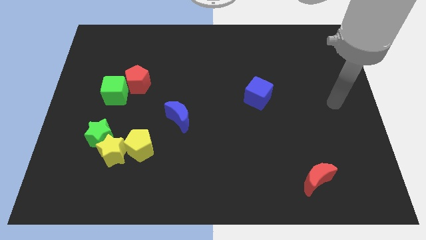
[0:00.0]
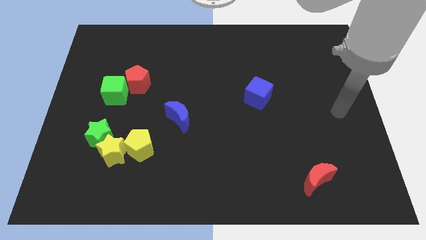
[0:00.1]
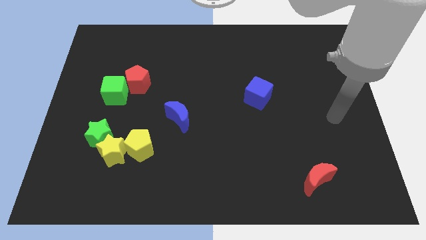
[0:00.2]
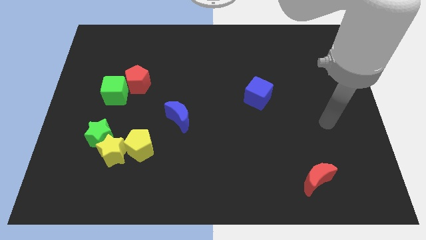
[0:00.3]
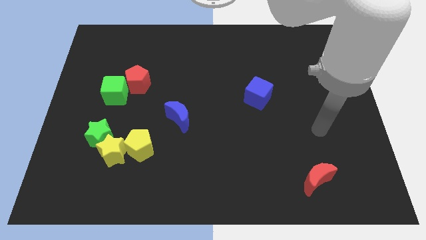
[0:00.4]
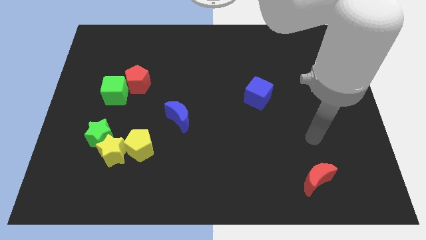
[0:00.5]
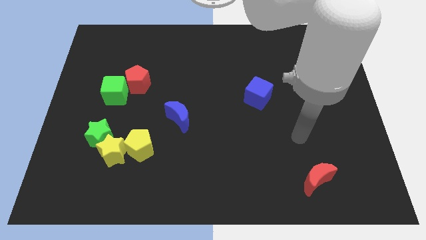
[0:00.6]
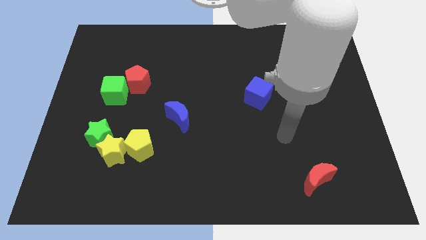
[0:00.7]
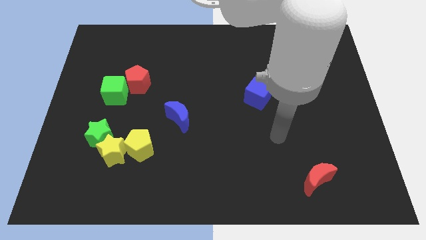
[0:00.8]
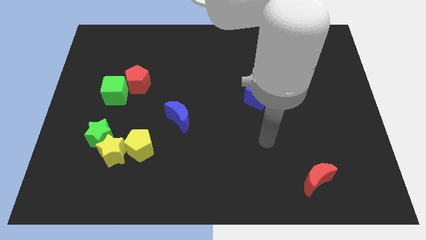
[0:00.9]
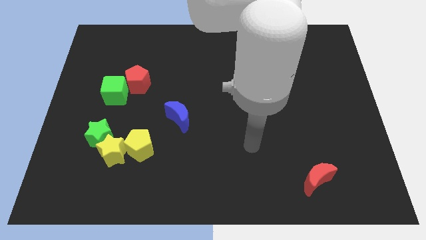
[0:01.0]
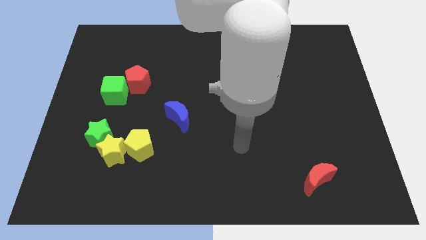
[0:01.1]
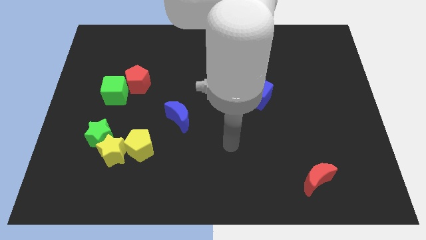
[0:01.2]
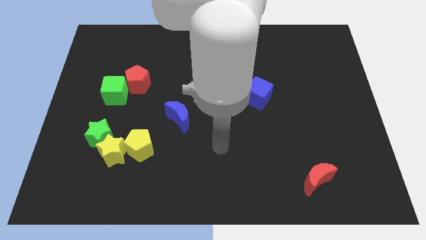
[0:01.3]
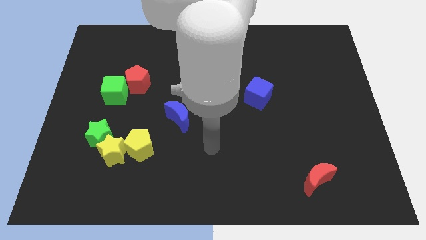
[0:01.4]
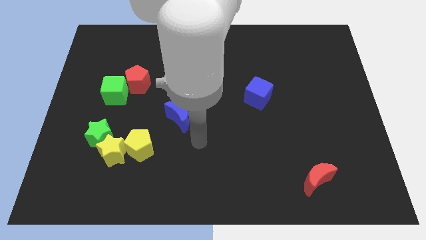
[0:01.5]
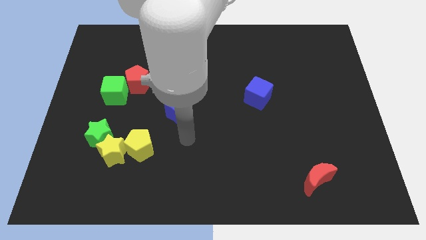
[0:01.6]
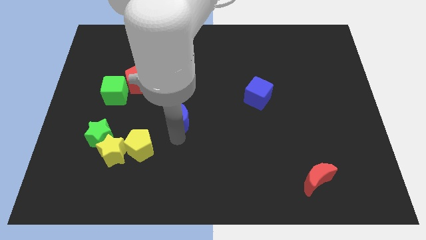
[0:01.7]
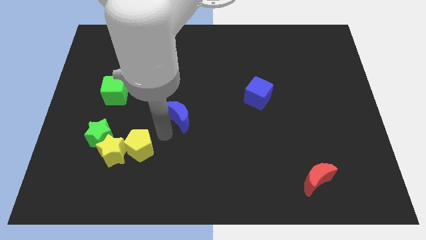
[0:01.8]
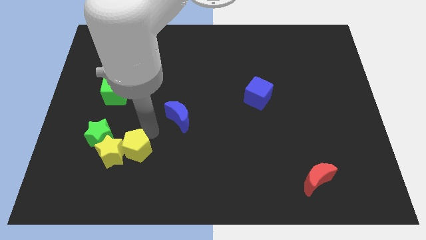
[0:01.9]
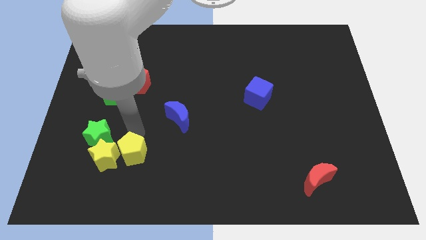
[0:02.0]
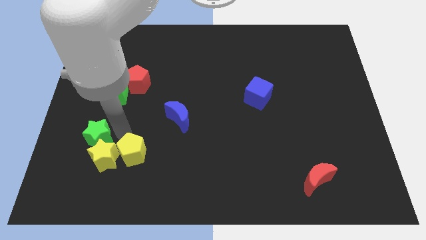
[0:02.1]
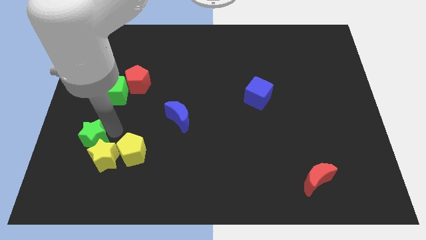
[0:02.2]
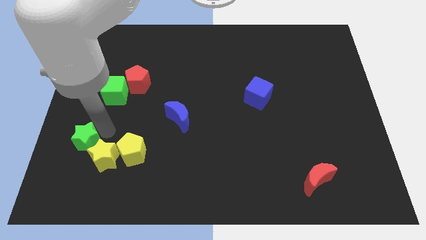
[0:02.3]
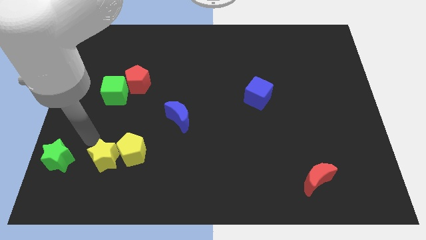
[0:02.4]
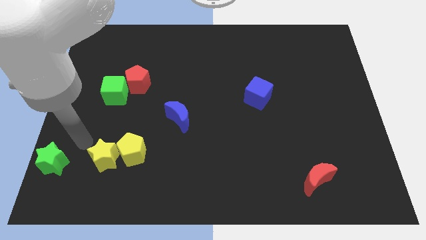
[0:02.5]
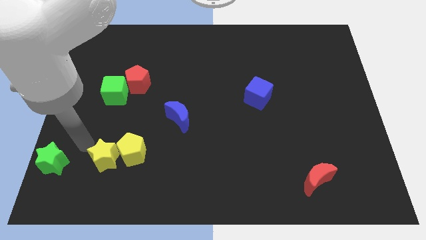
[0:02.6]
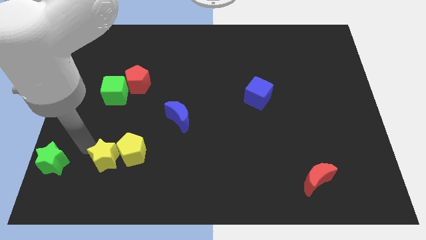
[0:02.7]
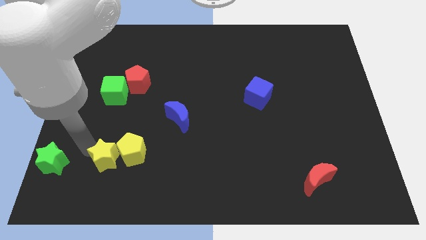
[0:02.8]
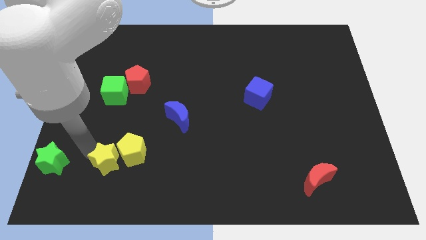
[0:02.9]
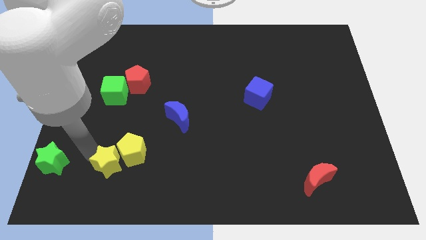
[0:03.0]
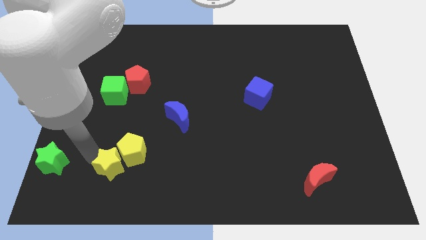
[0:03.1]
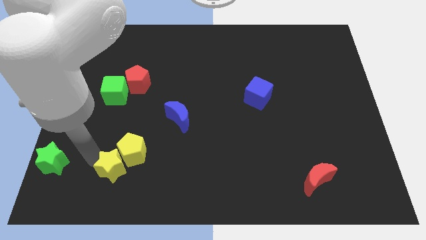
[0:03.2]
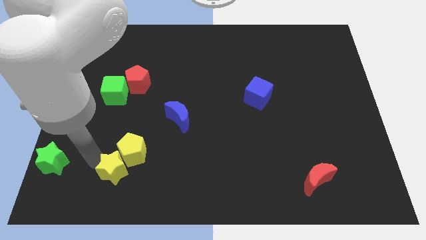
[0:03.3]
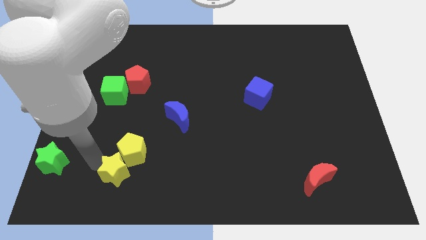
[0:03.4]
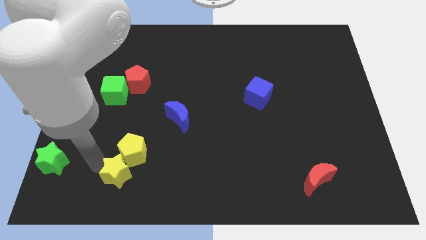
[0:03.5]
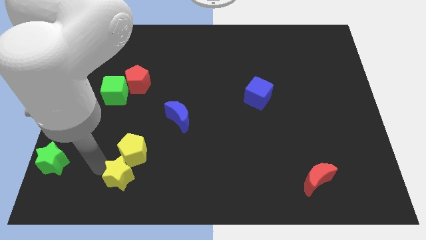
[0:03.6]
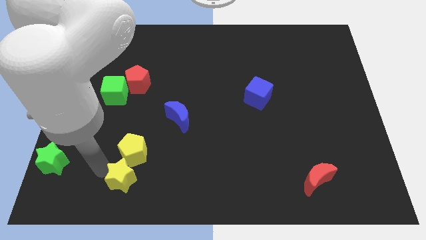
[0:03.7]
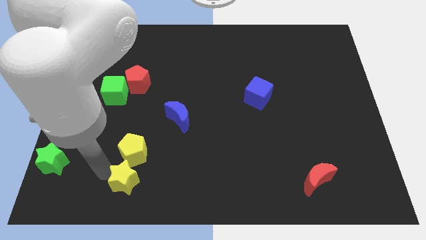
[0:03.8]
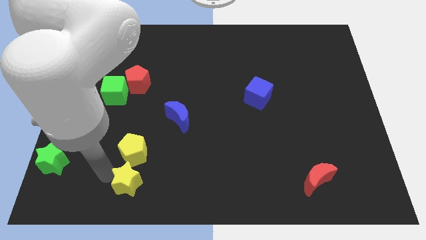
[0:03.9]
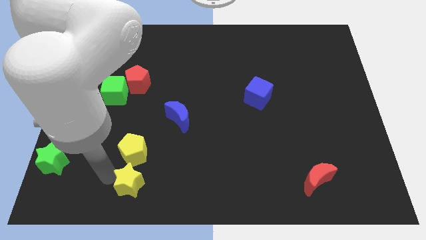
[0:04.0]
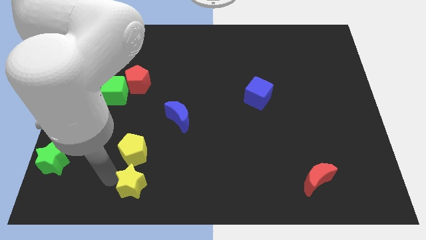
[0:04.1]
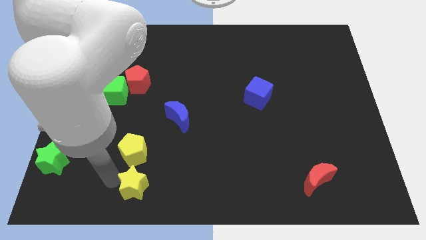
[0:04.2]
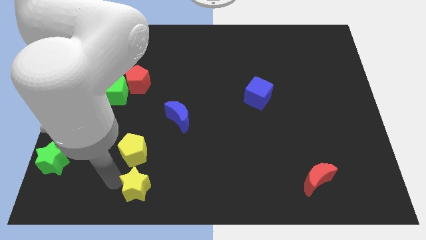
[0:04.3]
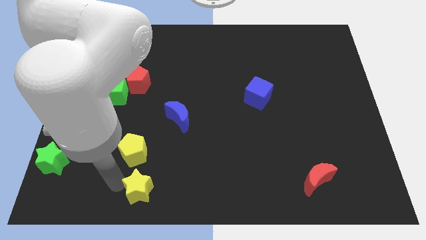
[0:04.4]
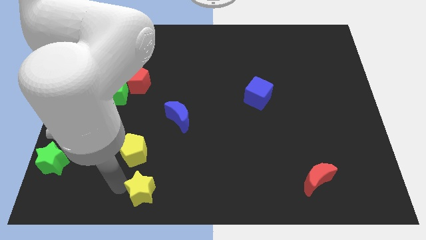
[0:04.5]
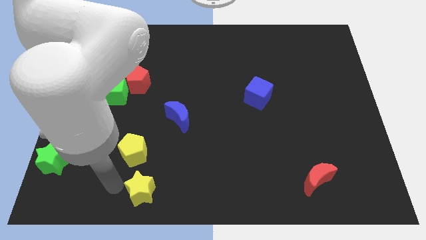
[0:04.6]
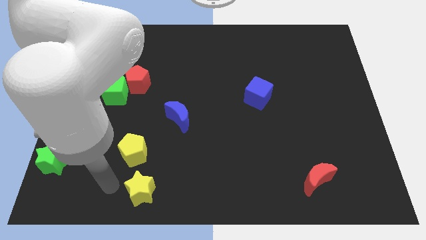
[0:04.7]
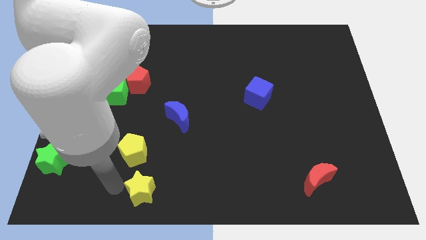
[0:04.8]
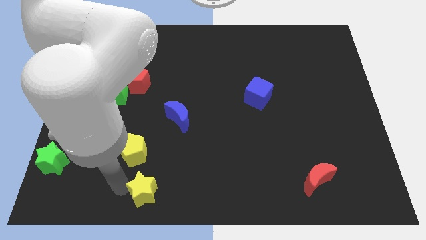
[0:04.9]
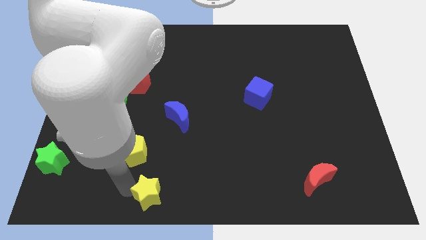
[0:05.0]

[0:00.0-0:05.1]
push the yellow star to the bottom side
